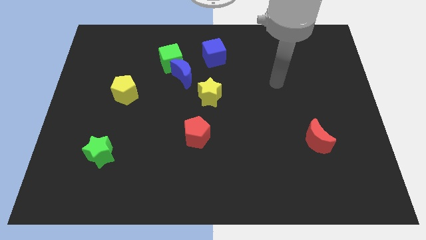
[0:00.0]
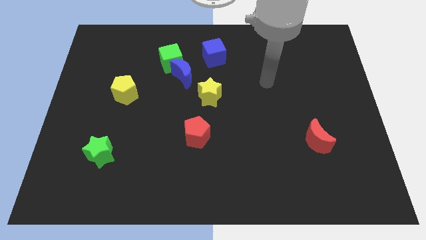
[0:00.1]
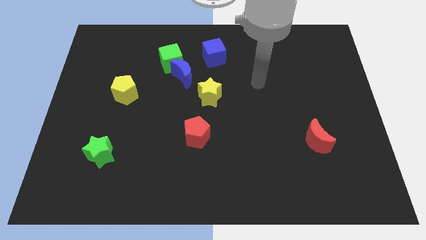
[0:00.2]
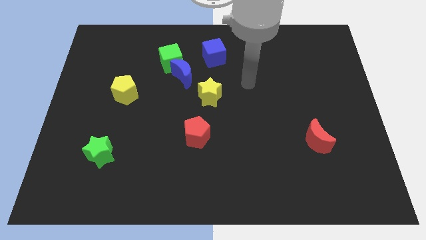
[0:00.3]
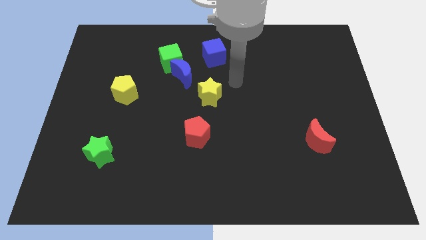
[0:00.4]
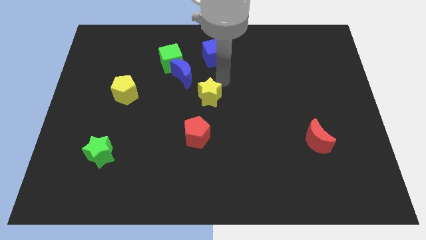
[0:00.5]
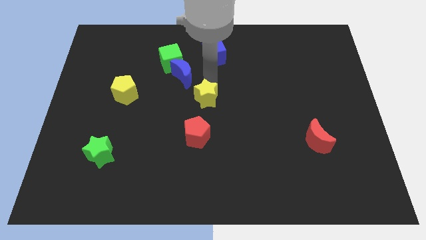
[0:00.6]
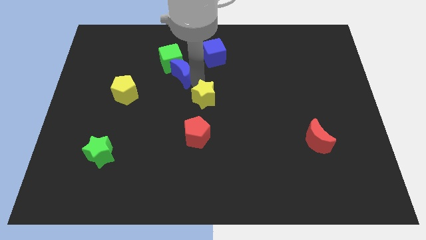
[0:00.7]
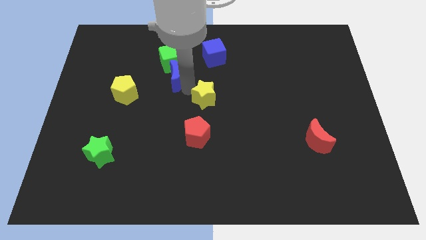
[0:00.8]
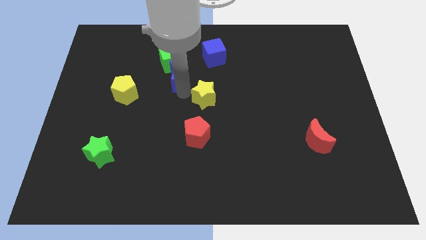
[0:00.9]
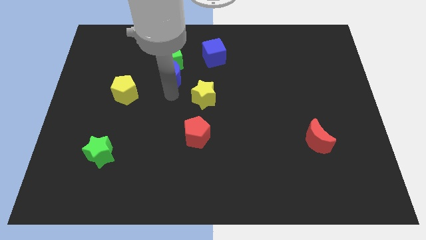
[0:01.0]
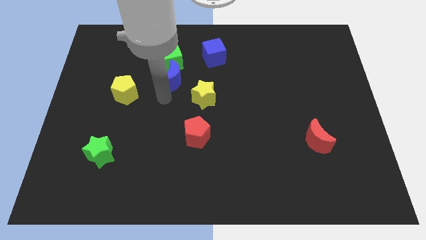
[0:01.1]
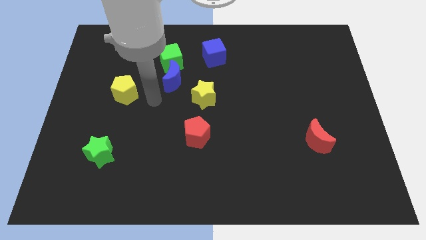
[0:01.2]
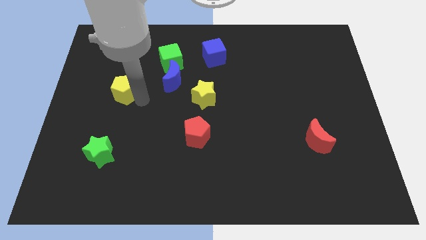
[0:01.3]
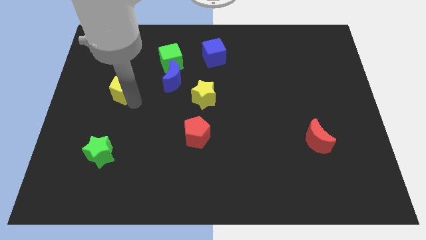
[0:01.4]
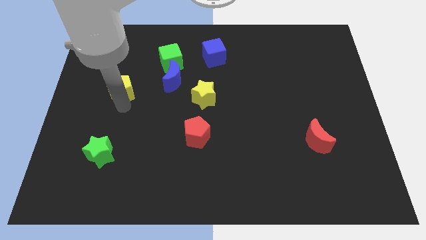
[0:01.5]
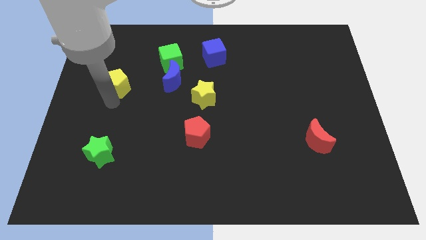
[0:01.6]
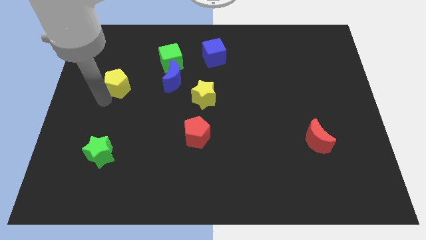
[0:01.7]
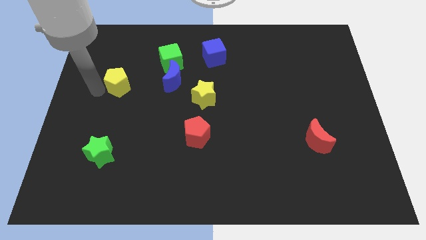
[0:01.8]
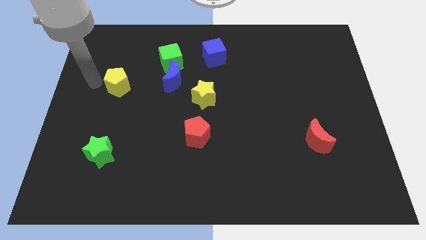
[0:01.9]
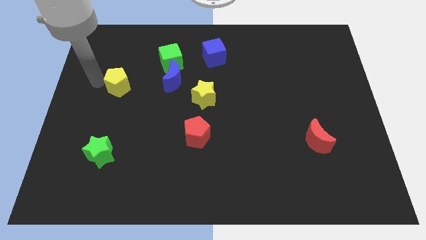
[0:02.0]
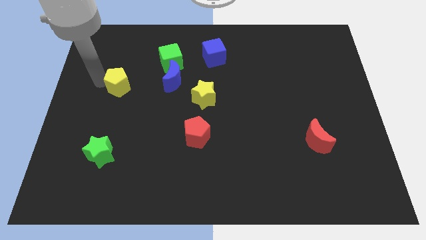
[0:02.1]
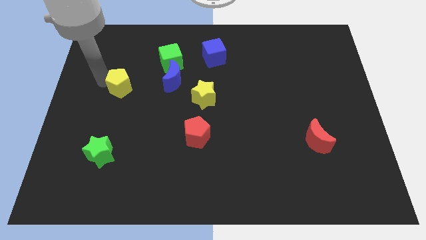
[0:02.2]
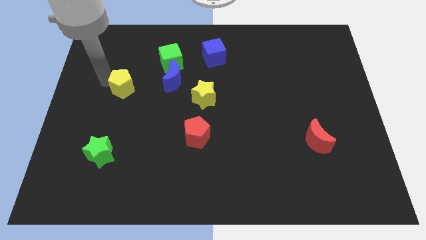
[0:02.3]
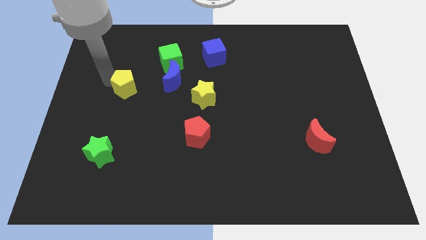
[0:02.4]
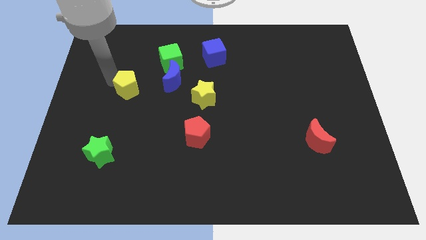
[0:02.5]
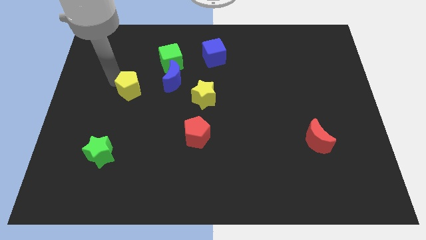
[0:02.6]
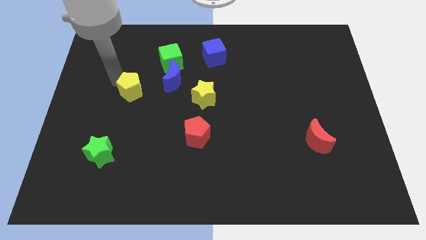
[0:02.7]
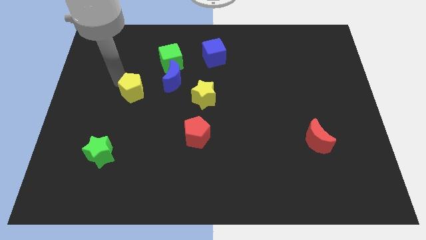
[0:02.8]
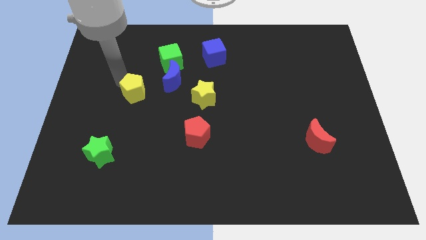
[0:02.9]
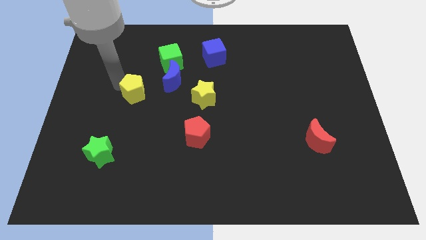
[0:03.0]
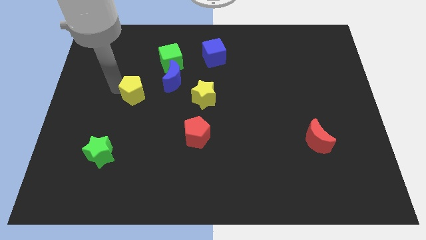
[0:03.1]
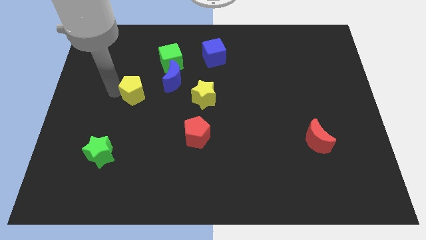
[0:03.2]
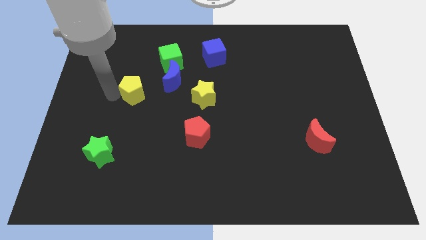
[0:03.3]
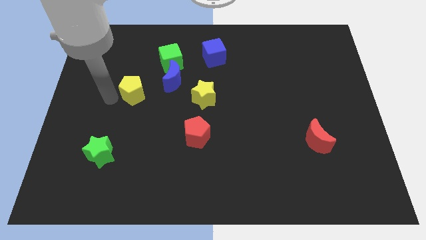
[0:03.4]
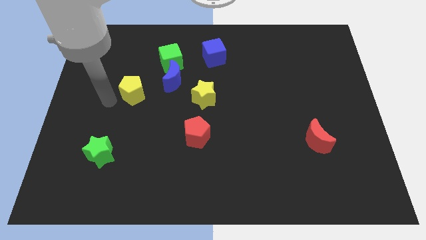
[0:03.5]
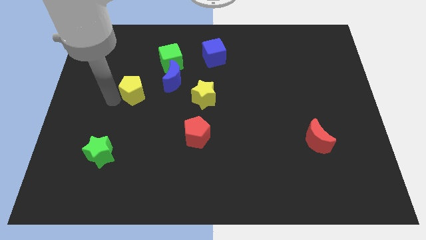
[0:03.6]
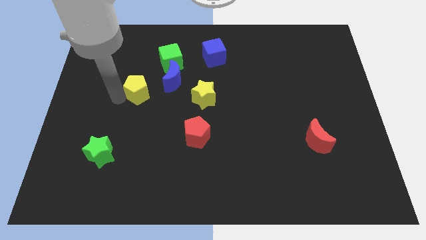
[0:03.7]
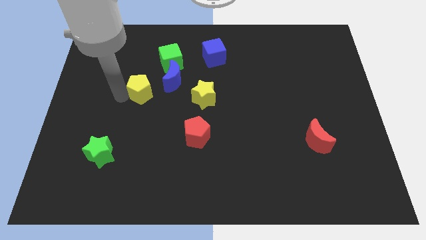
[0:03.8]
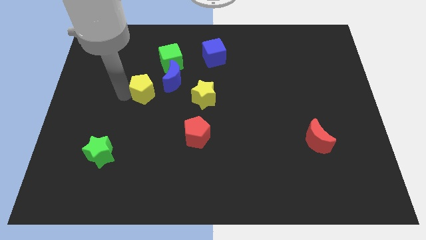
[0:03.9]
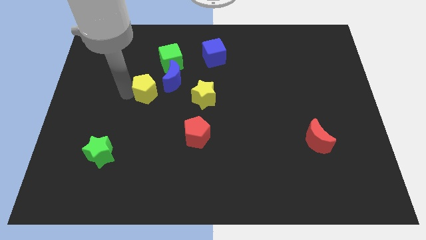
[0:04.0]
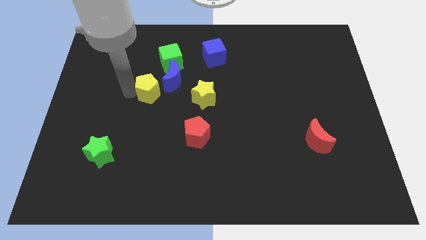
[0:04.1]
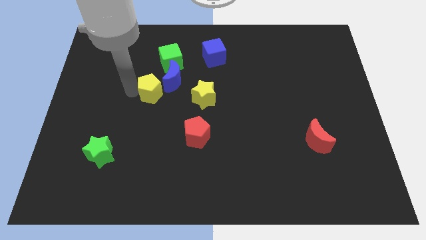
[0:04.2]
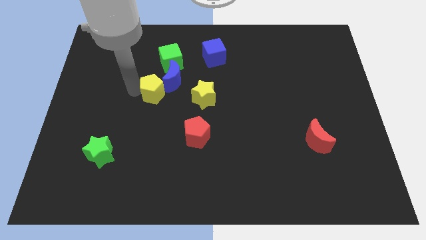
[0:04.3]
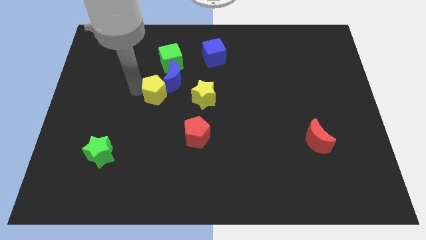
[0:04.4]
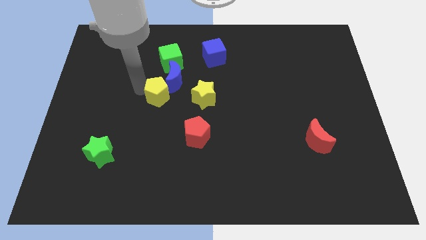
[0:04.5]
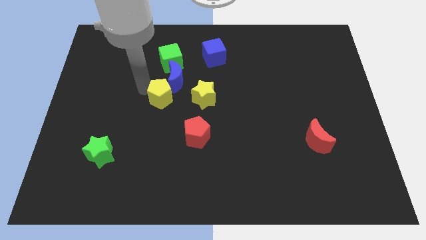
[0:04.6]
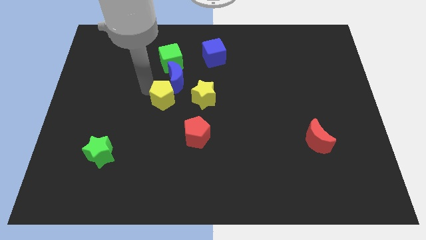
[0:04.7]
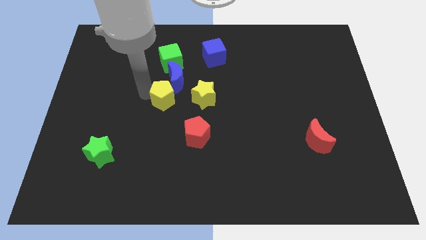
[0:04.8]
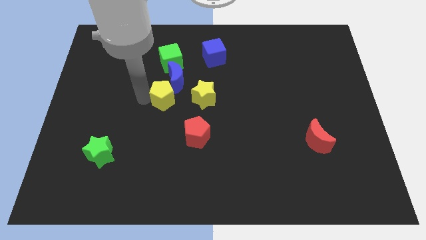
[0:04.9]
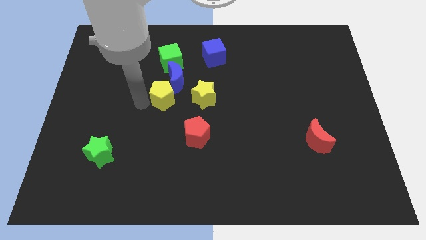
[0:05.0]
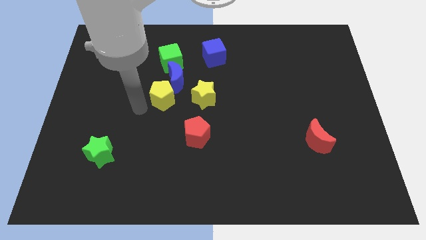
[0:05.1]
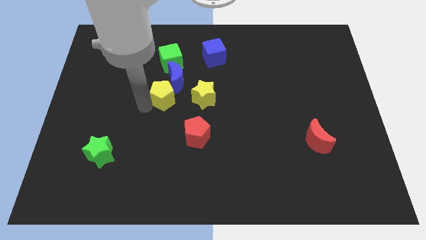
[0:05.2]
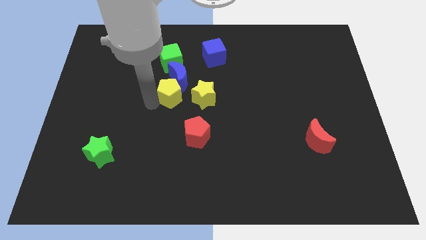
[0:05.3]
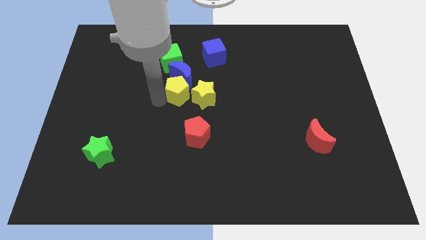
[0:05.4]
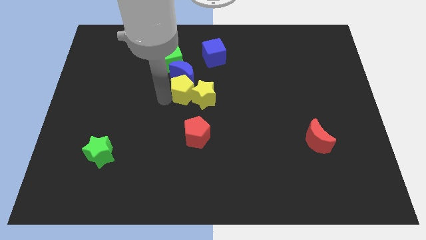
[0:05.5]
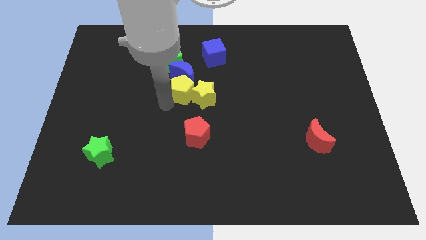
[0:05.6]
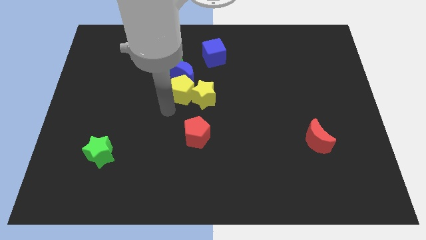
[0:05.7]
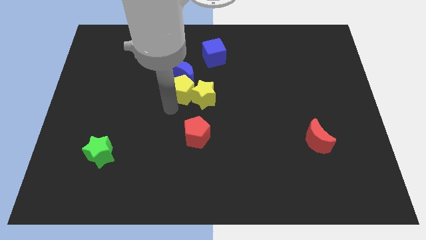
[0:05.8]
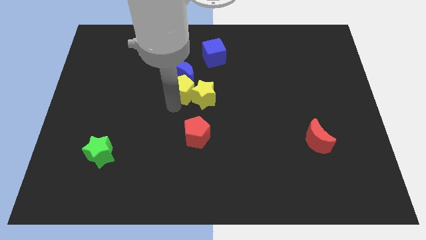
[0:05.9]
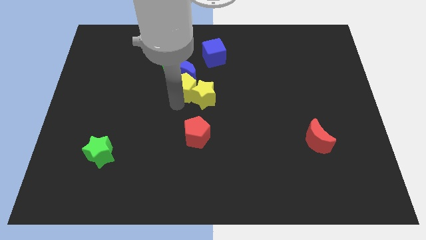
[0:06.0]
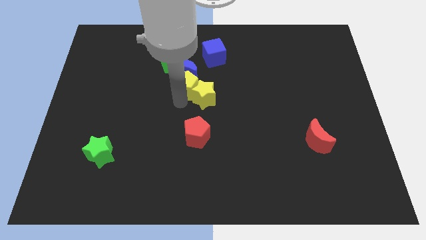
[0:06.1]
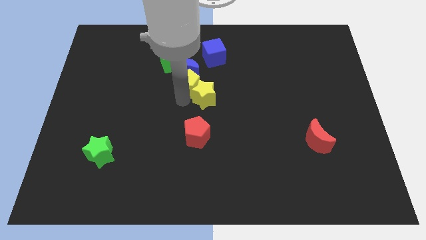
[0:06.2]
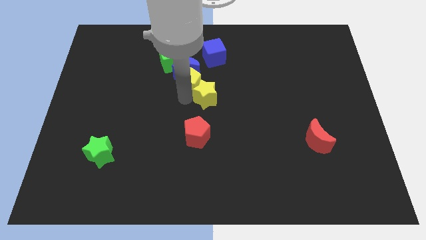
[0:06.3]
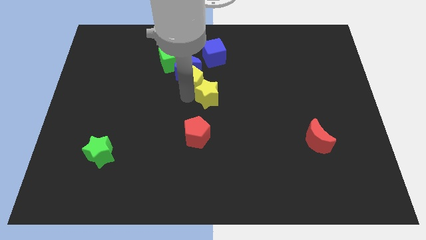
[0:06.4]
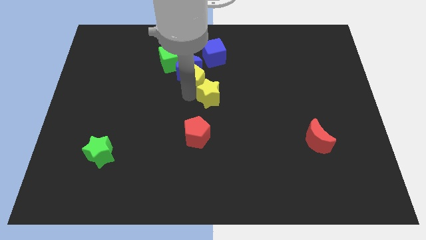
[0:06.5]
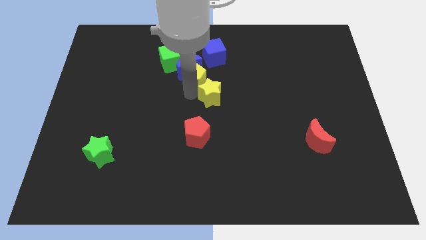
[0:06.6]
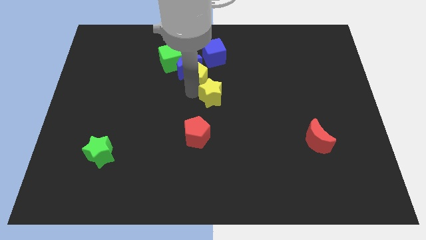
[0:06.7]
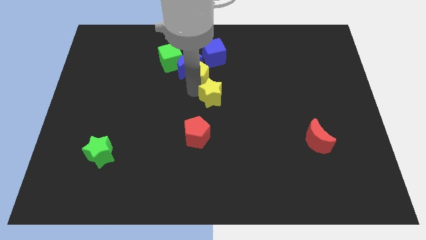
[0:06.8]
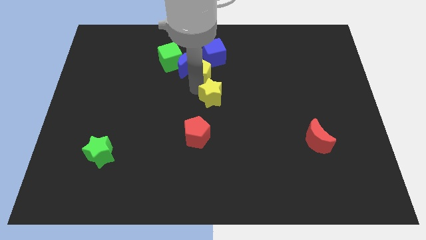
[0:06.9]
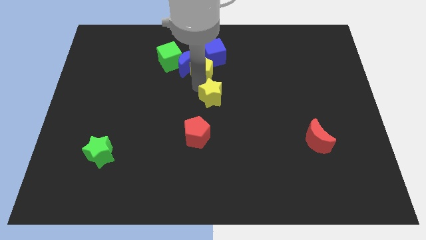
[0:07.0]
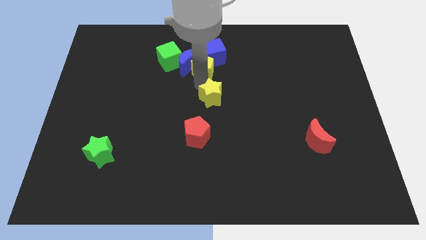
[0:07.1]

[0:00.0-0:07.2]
push the yellow pentagon close to the blue cube
